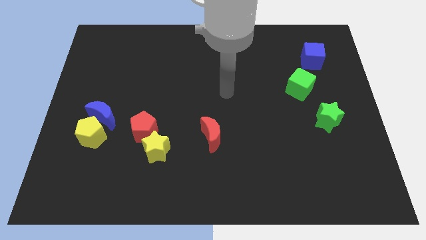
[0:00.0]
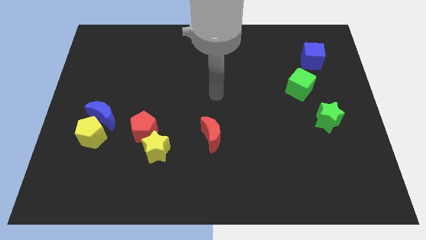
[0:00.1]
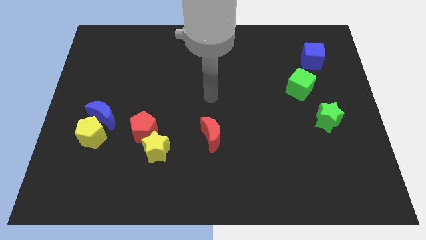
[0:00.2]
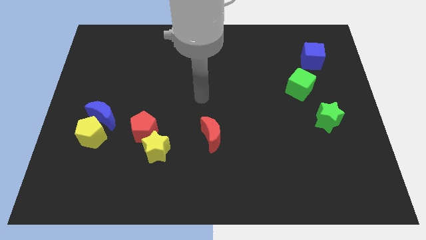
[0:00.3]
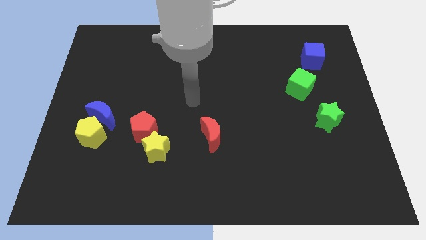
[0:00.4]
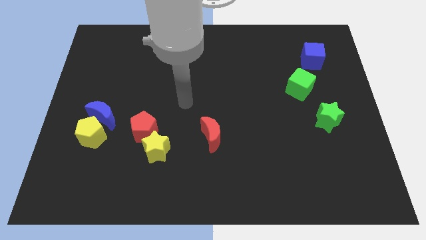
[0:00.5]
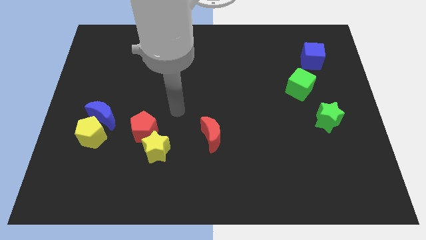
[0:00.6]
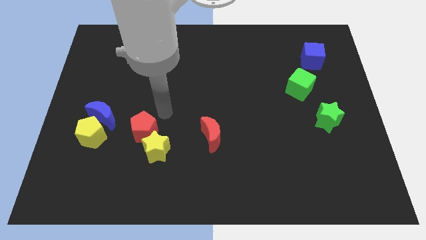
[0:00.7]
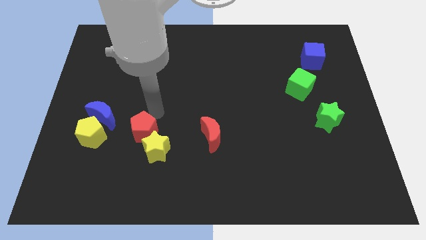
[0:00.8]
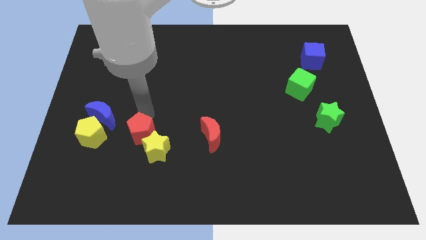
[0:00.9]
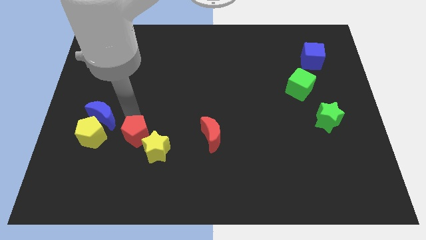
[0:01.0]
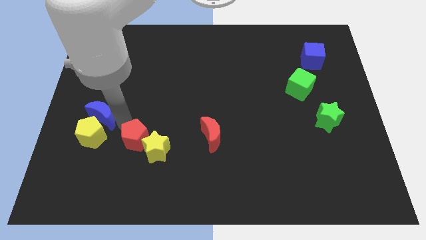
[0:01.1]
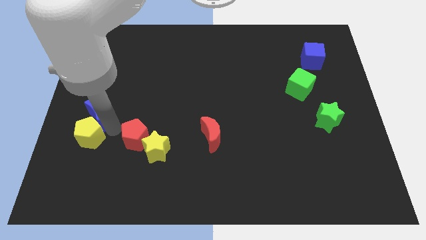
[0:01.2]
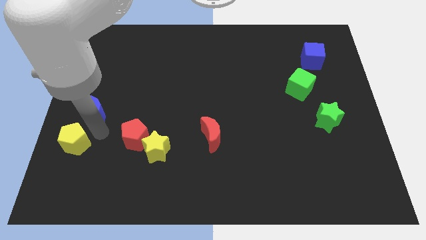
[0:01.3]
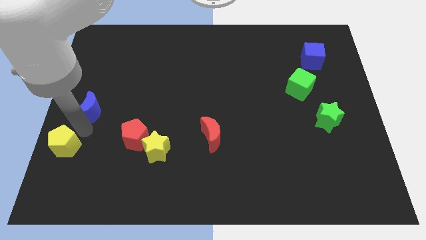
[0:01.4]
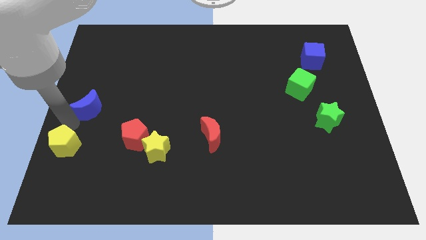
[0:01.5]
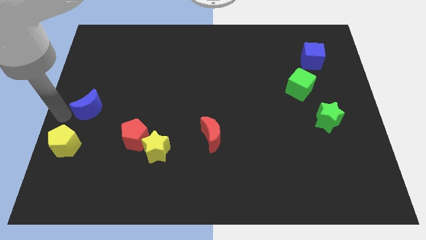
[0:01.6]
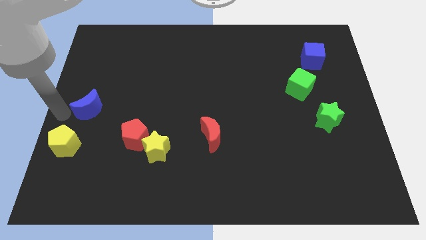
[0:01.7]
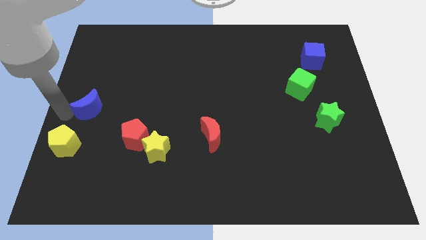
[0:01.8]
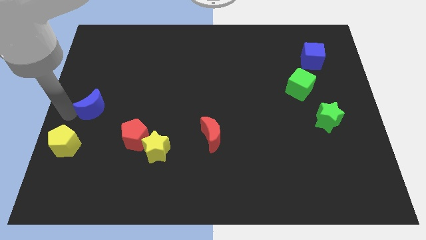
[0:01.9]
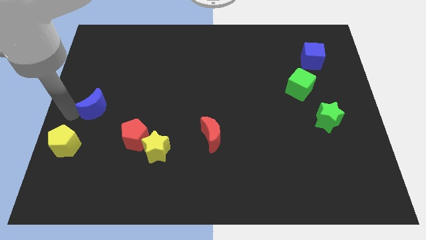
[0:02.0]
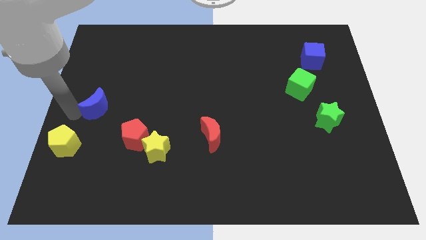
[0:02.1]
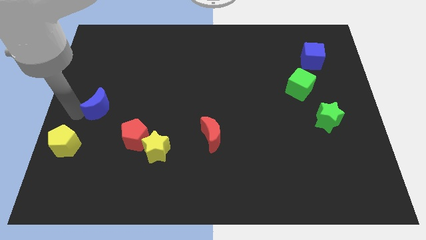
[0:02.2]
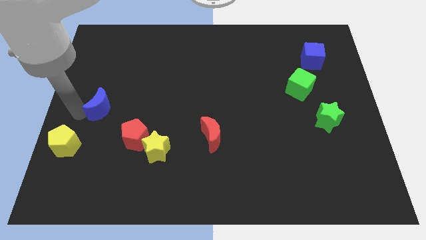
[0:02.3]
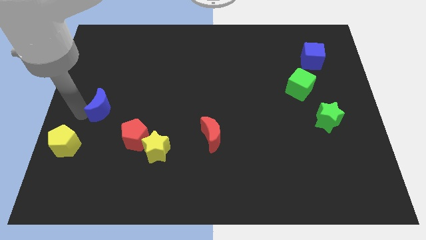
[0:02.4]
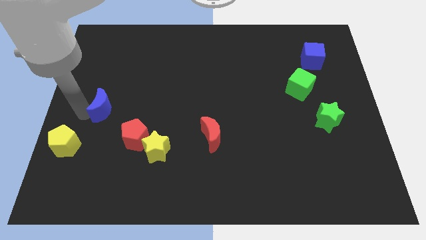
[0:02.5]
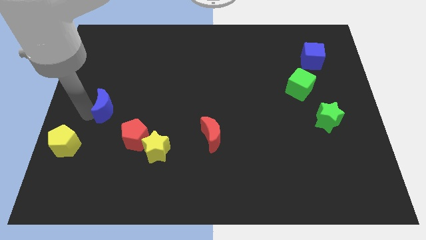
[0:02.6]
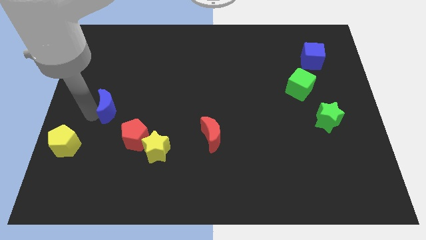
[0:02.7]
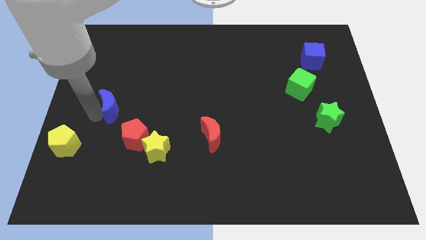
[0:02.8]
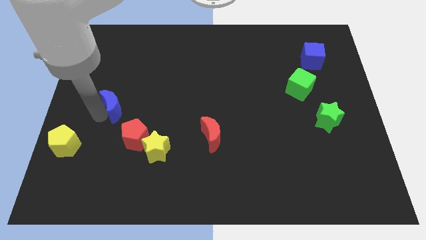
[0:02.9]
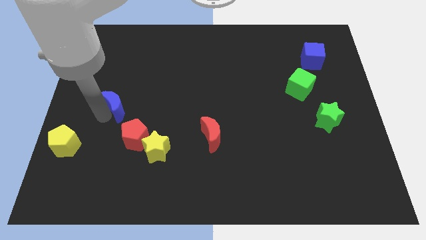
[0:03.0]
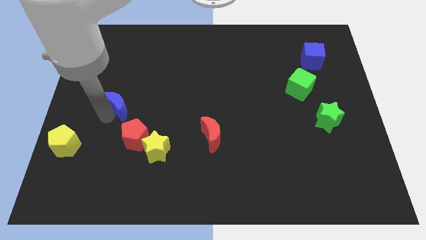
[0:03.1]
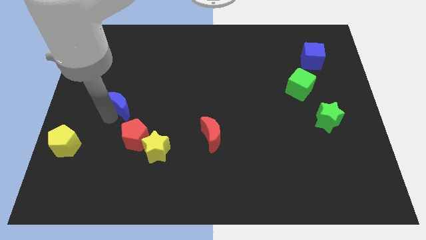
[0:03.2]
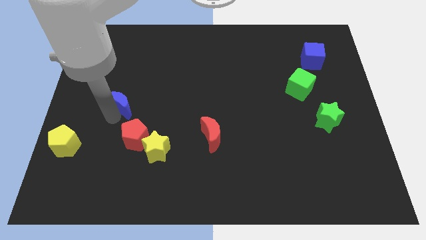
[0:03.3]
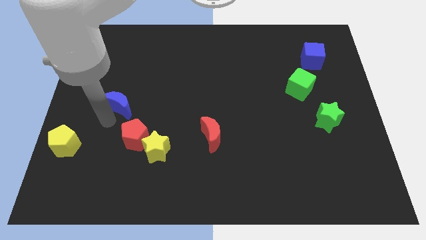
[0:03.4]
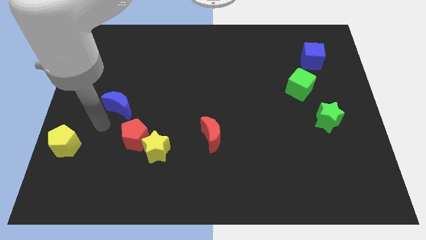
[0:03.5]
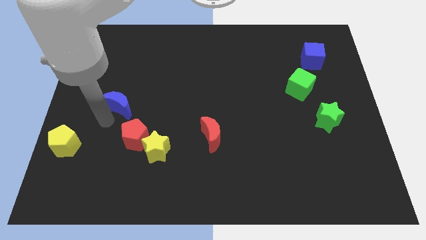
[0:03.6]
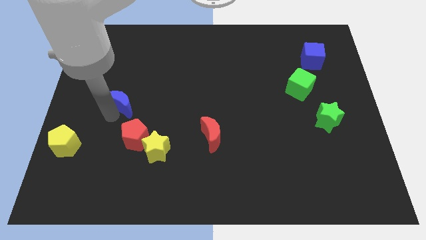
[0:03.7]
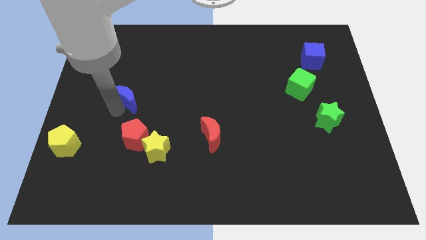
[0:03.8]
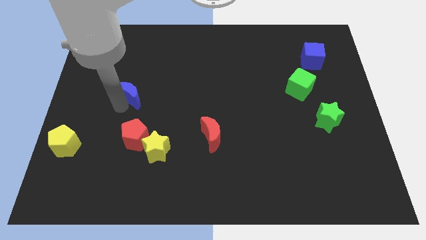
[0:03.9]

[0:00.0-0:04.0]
slightly move the blue moon upwards and then to the right

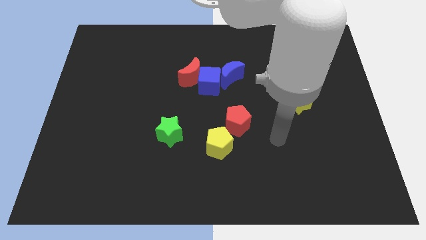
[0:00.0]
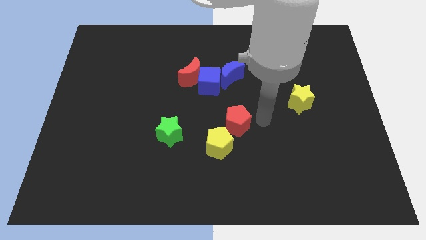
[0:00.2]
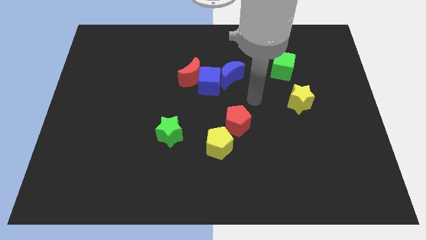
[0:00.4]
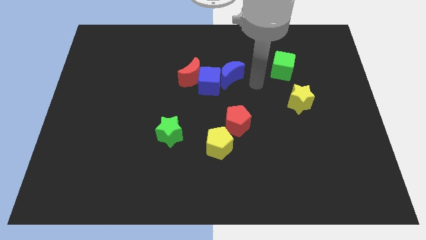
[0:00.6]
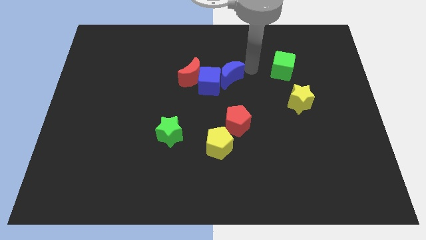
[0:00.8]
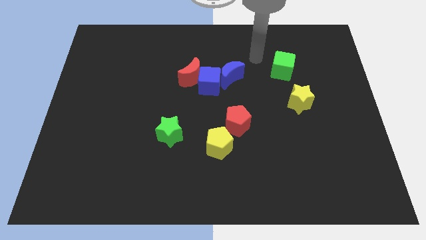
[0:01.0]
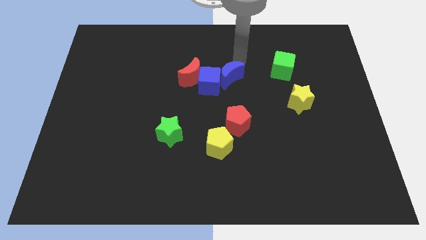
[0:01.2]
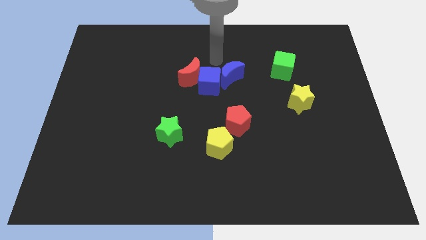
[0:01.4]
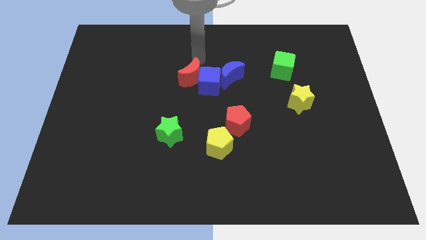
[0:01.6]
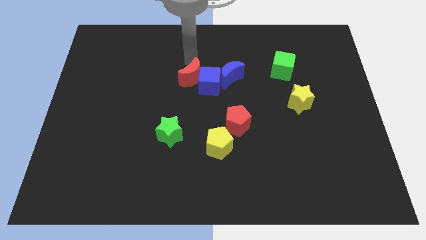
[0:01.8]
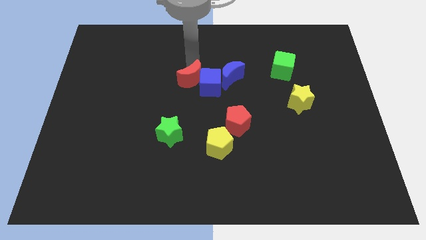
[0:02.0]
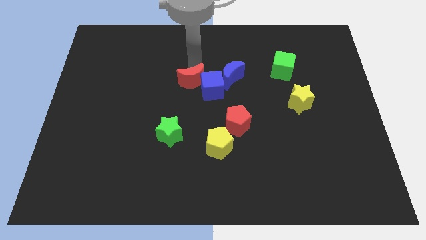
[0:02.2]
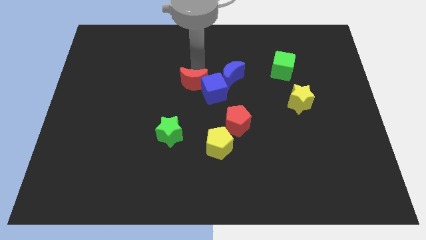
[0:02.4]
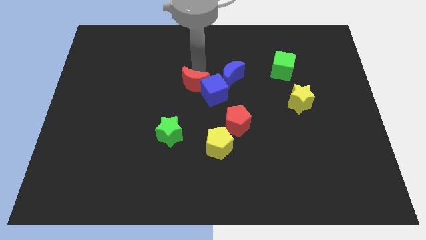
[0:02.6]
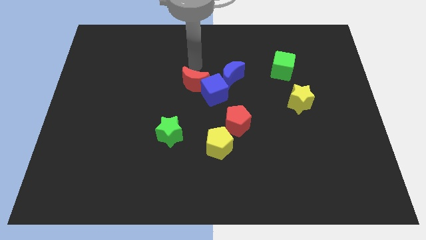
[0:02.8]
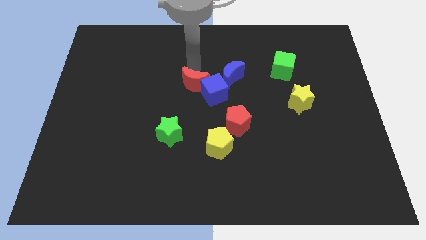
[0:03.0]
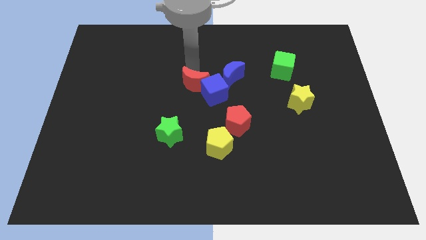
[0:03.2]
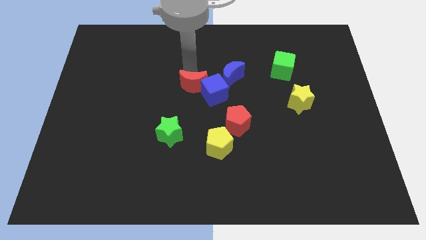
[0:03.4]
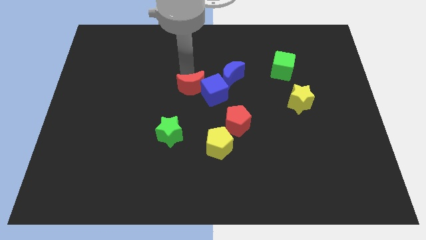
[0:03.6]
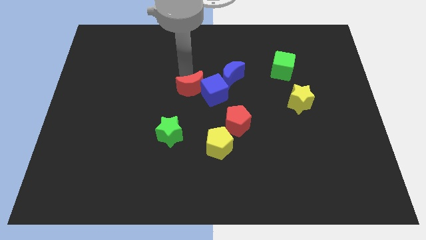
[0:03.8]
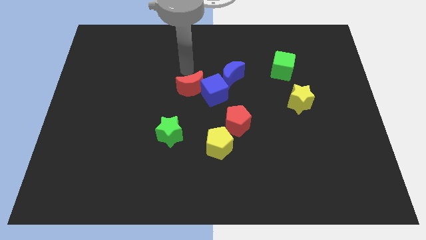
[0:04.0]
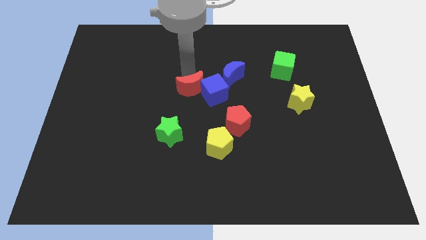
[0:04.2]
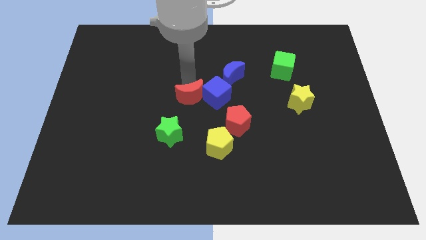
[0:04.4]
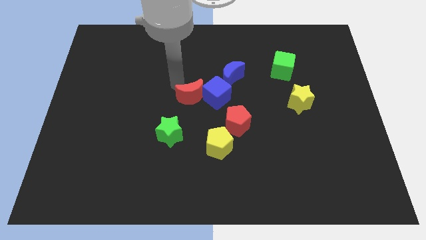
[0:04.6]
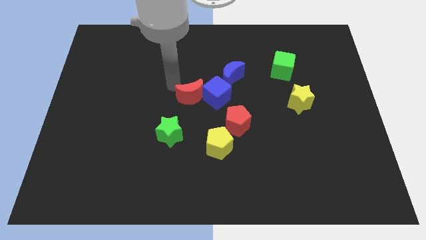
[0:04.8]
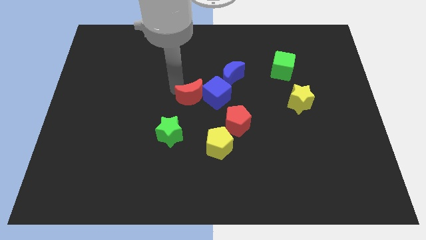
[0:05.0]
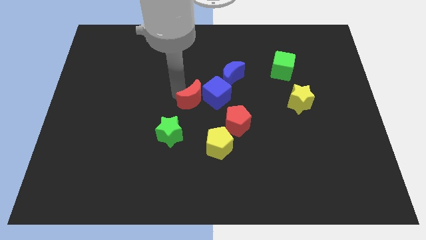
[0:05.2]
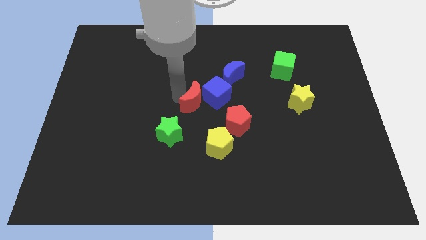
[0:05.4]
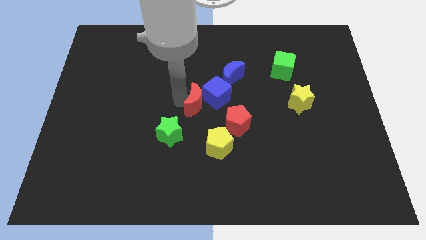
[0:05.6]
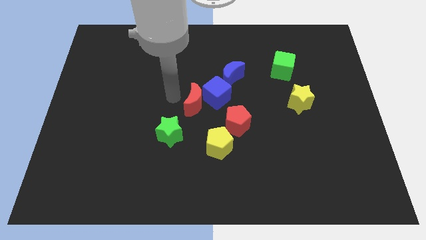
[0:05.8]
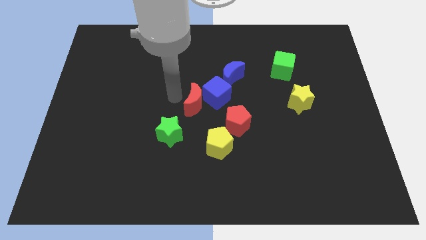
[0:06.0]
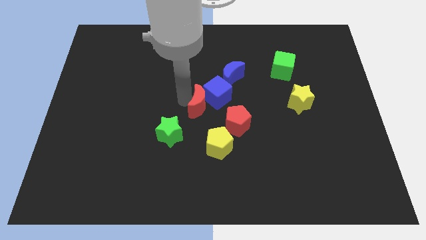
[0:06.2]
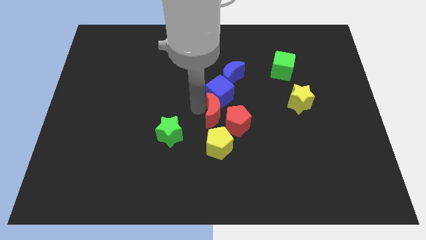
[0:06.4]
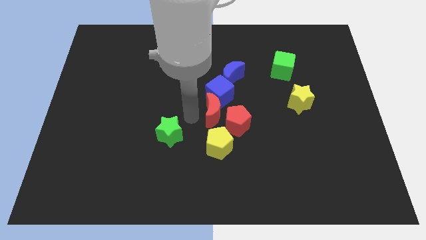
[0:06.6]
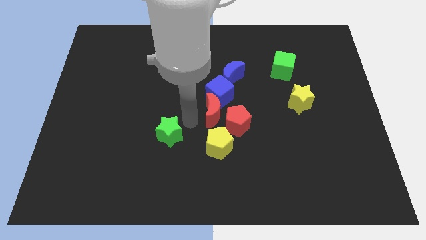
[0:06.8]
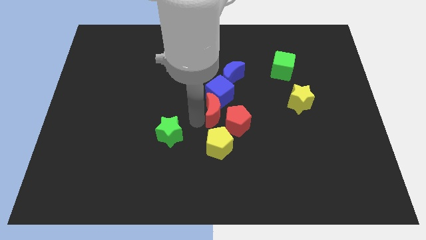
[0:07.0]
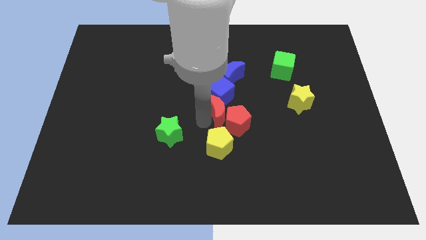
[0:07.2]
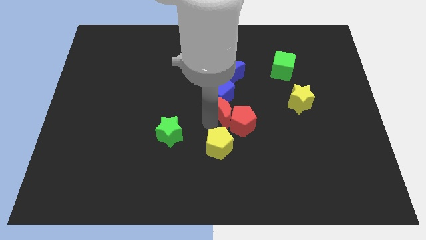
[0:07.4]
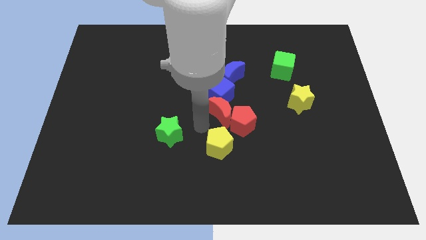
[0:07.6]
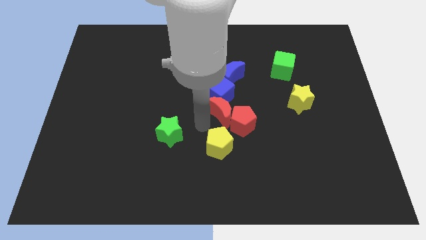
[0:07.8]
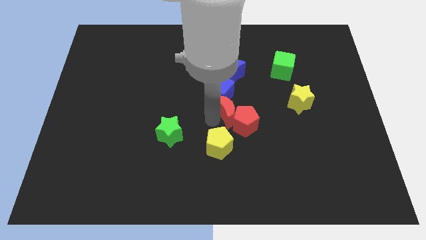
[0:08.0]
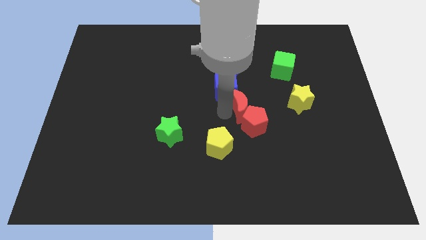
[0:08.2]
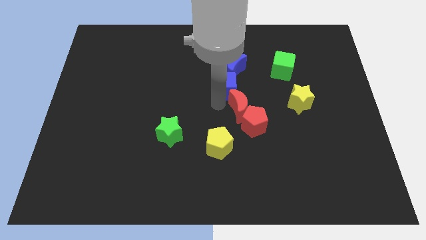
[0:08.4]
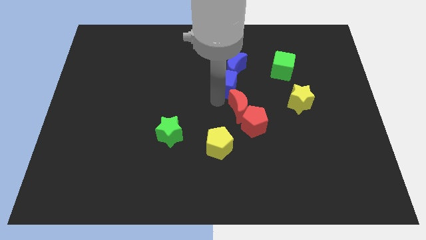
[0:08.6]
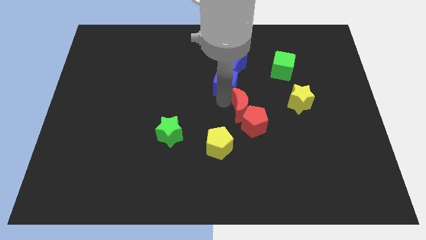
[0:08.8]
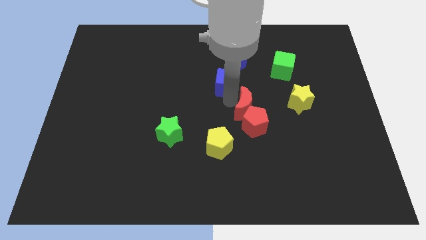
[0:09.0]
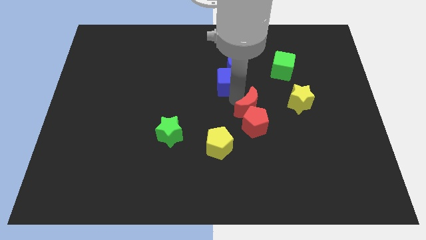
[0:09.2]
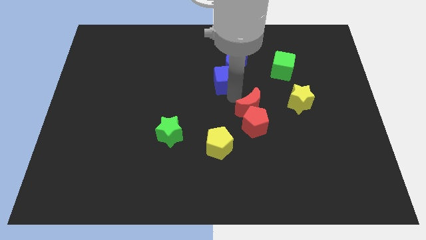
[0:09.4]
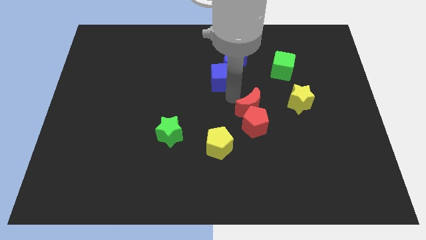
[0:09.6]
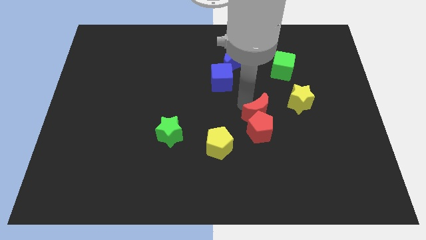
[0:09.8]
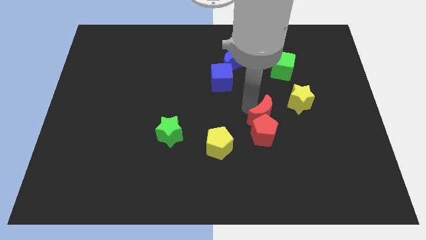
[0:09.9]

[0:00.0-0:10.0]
push the red moon downwards and right
